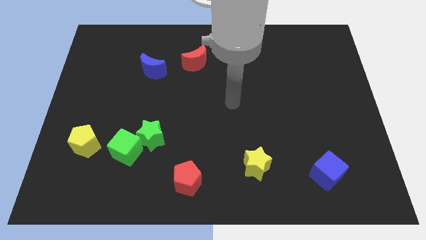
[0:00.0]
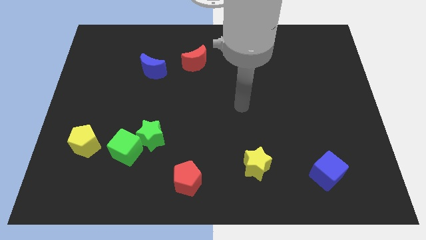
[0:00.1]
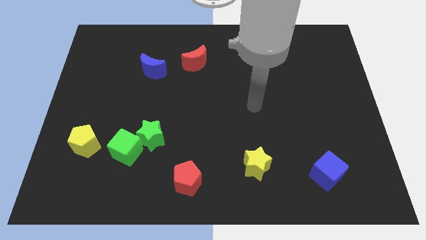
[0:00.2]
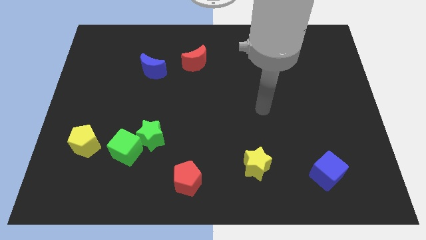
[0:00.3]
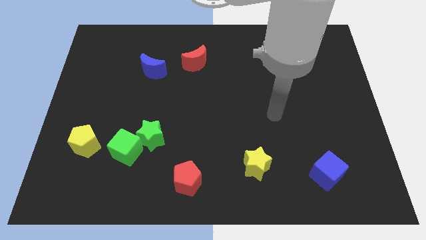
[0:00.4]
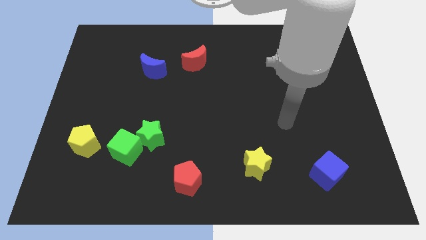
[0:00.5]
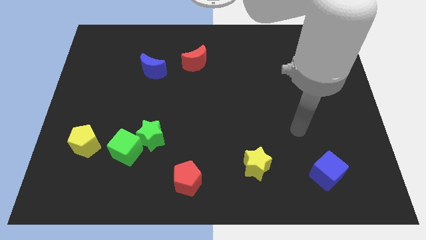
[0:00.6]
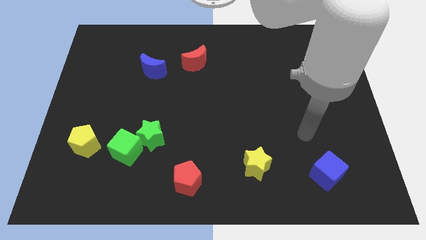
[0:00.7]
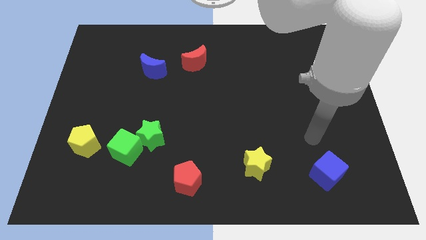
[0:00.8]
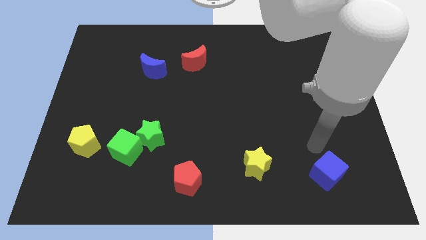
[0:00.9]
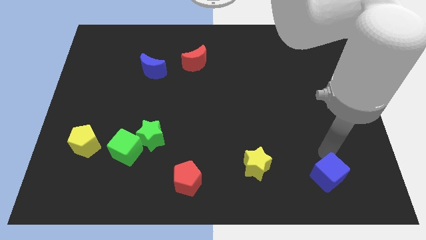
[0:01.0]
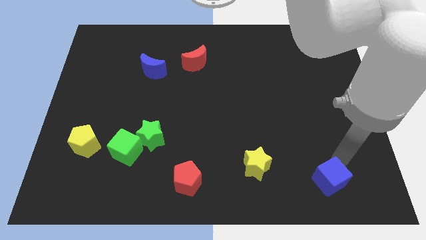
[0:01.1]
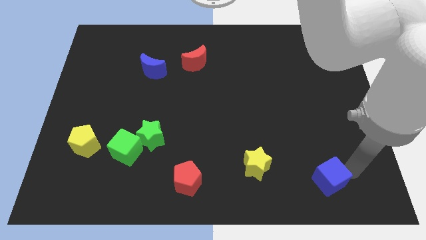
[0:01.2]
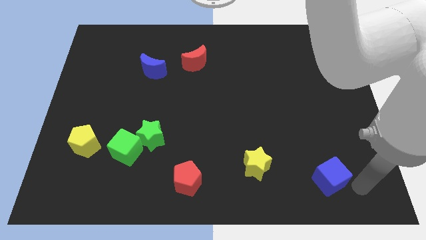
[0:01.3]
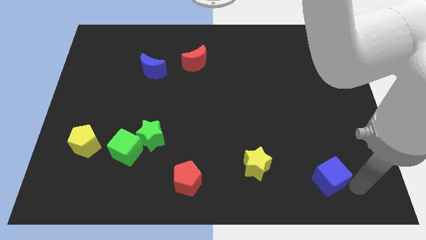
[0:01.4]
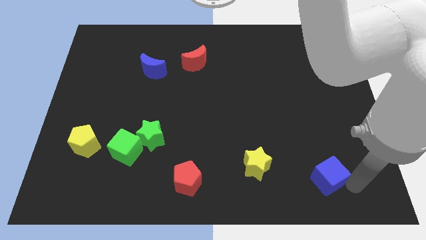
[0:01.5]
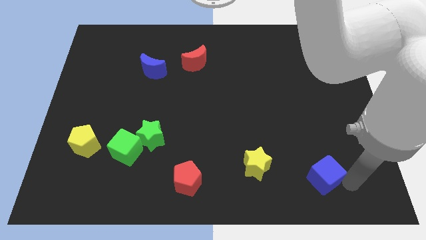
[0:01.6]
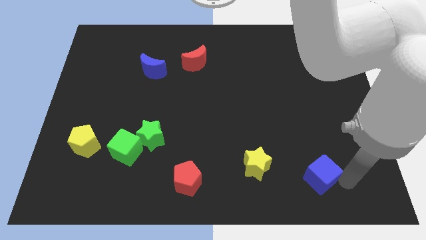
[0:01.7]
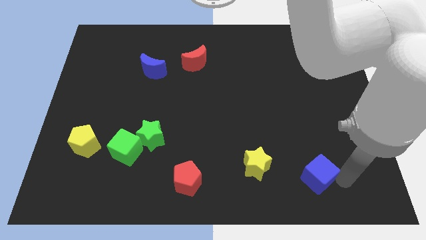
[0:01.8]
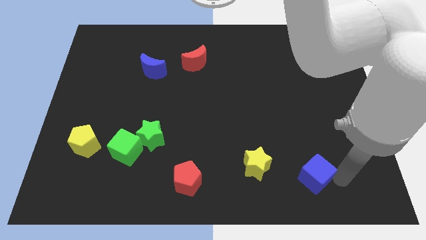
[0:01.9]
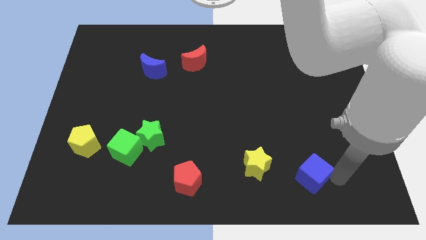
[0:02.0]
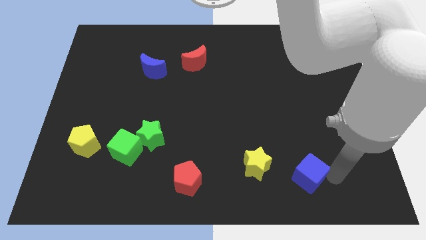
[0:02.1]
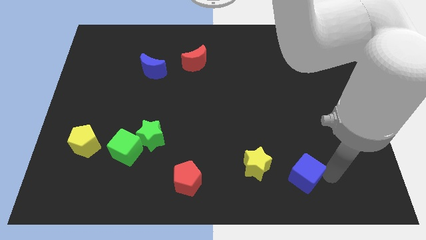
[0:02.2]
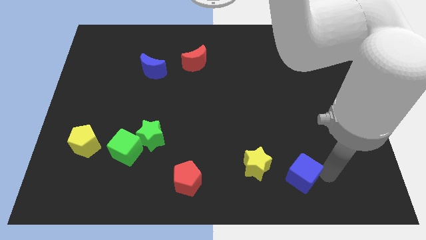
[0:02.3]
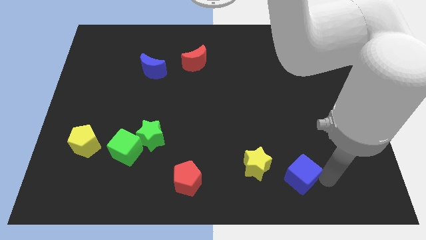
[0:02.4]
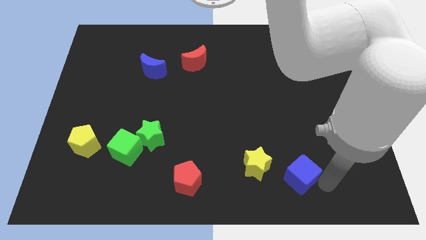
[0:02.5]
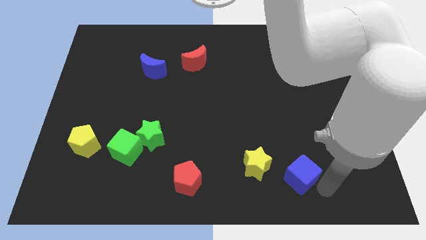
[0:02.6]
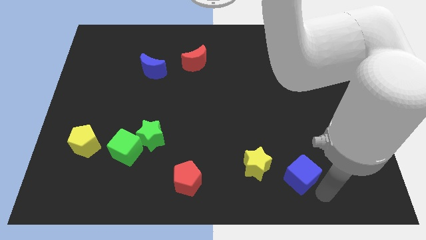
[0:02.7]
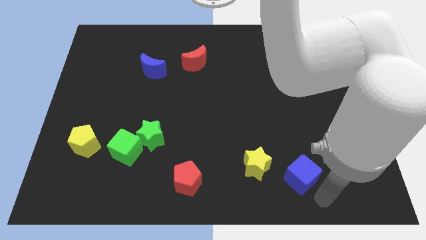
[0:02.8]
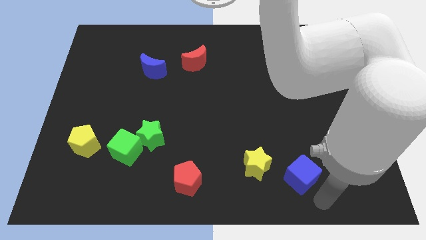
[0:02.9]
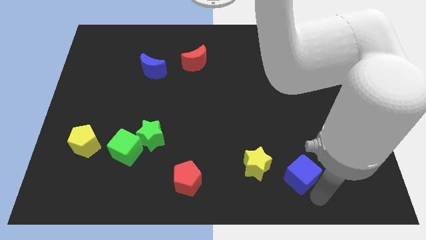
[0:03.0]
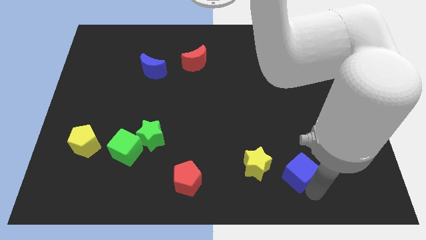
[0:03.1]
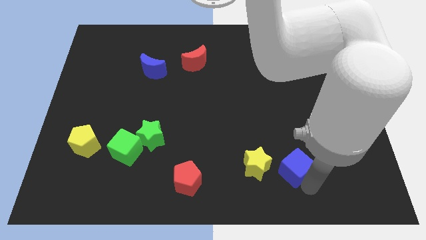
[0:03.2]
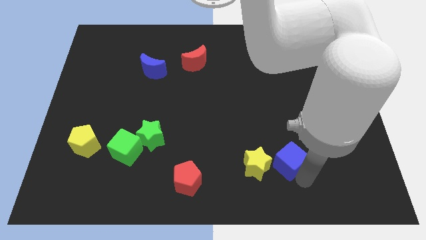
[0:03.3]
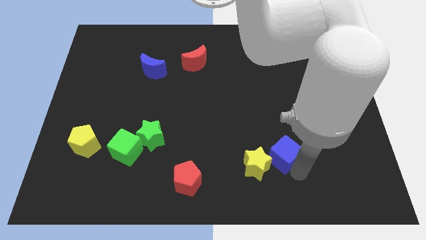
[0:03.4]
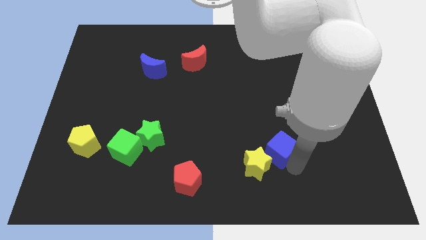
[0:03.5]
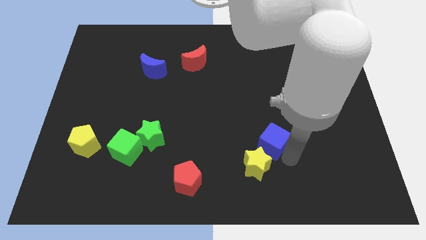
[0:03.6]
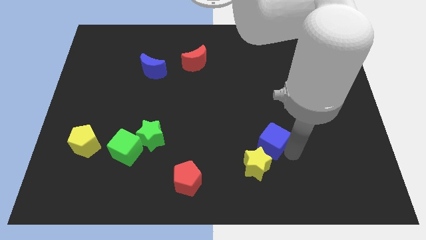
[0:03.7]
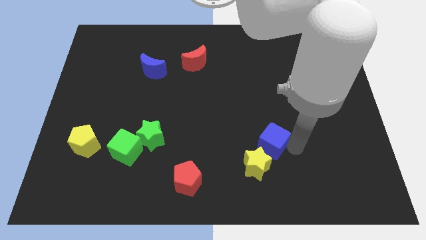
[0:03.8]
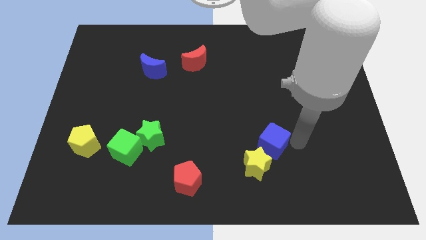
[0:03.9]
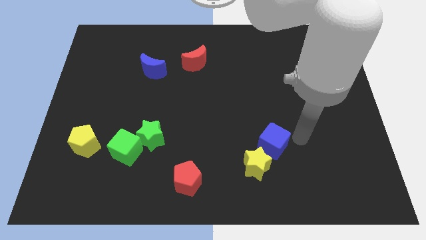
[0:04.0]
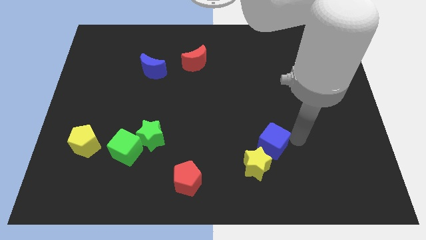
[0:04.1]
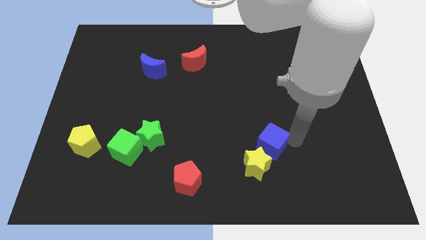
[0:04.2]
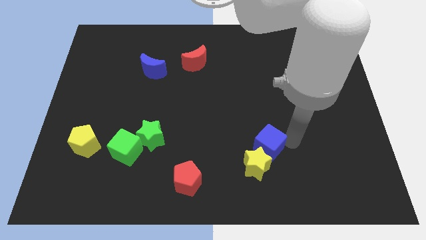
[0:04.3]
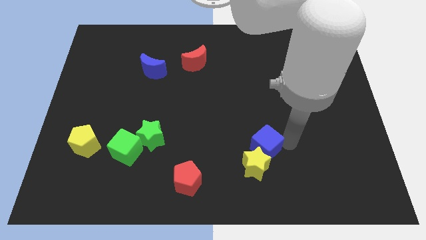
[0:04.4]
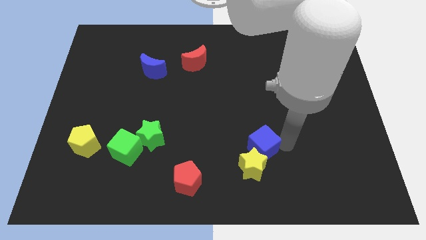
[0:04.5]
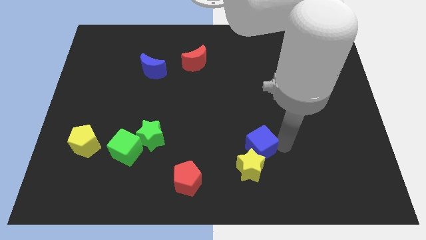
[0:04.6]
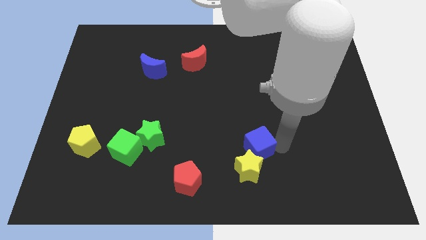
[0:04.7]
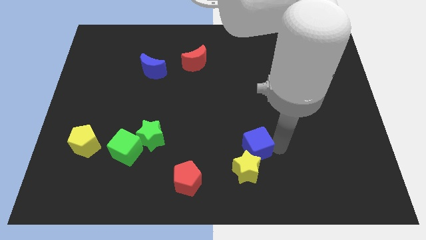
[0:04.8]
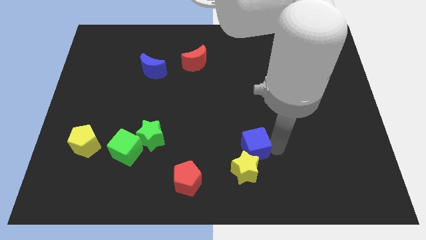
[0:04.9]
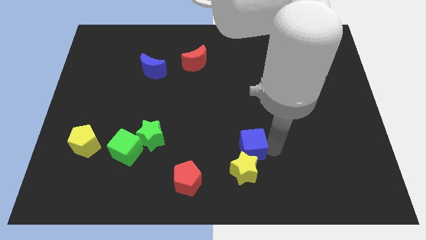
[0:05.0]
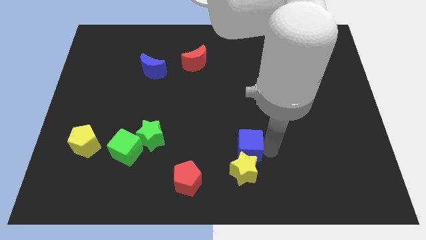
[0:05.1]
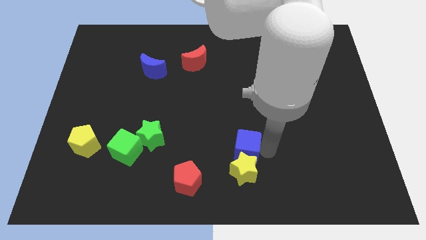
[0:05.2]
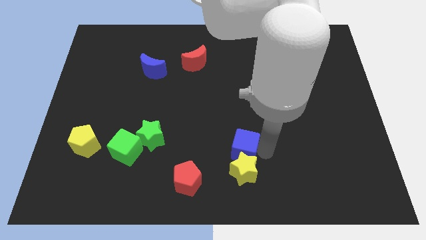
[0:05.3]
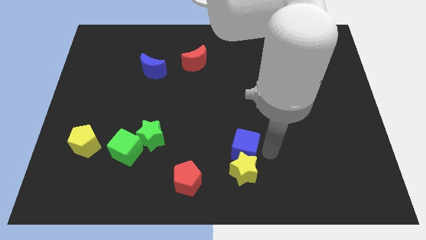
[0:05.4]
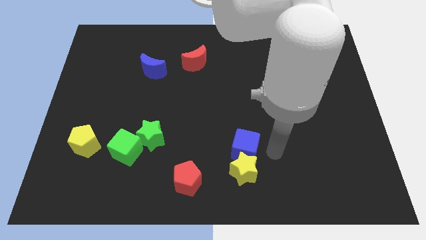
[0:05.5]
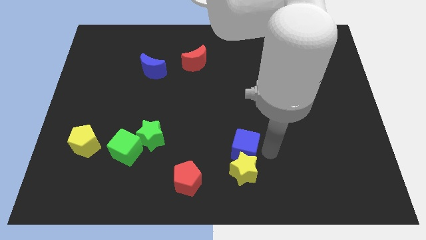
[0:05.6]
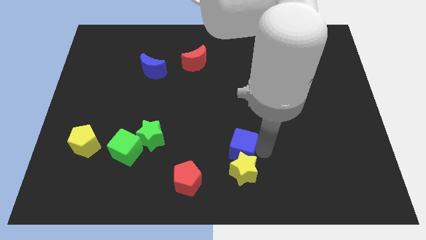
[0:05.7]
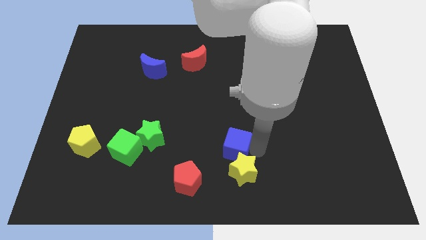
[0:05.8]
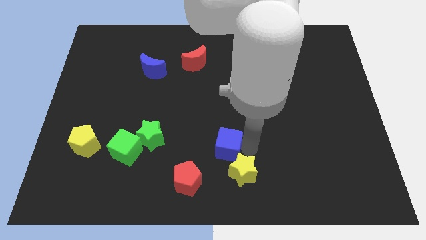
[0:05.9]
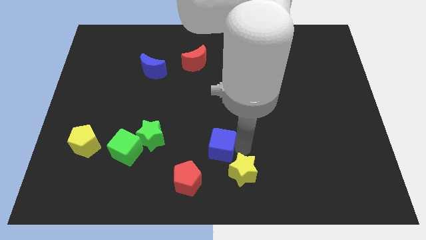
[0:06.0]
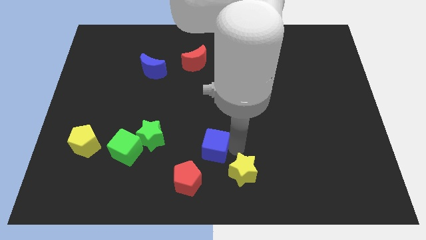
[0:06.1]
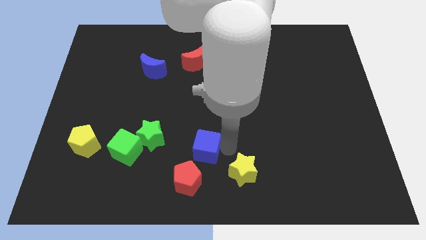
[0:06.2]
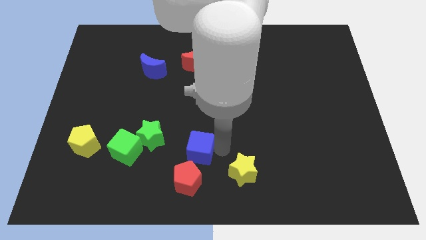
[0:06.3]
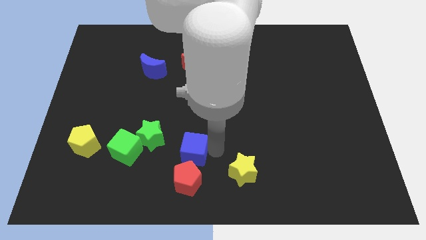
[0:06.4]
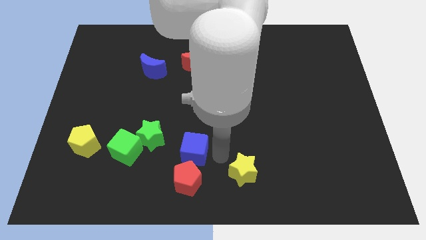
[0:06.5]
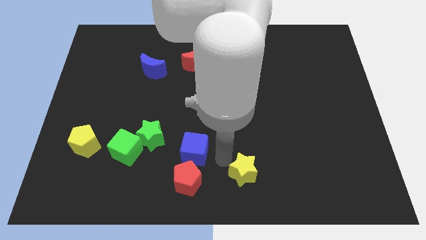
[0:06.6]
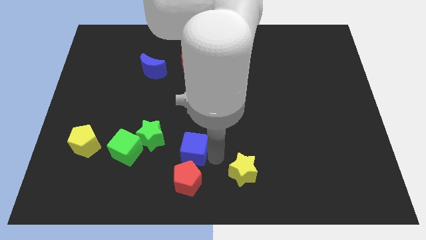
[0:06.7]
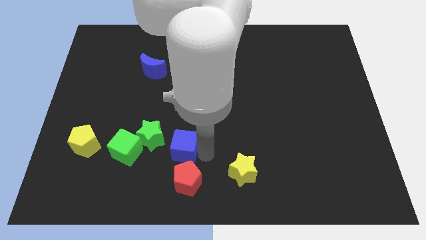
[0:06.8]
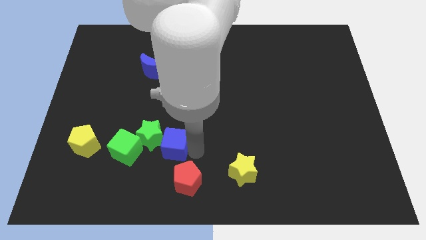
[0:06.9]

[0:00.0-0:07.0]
put the blue cube towards the green star
